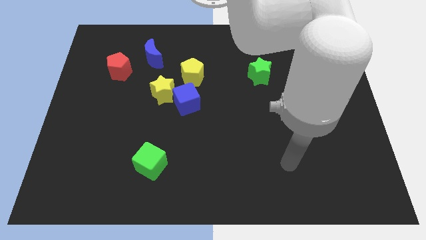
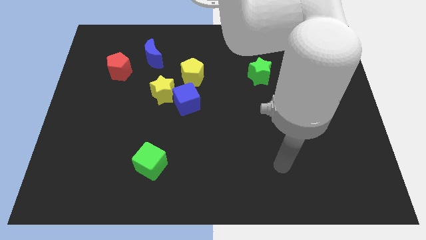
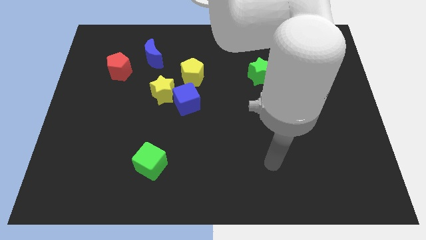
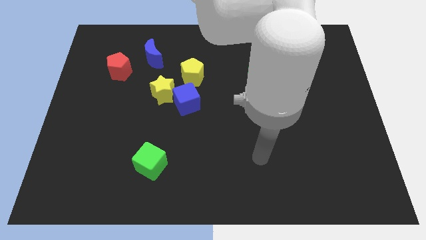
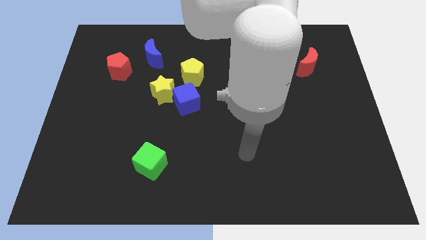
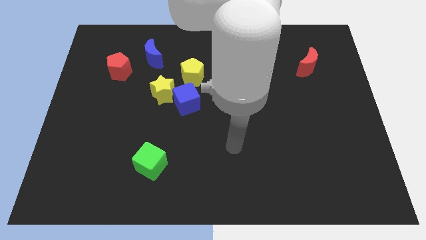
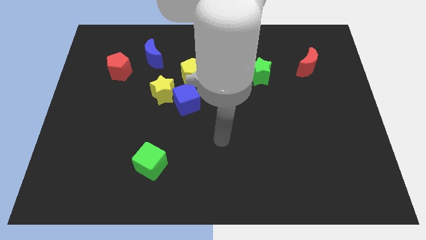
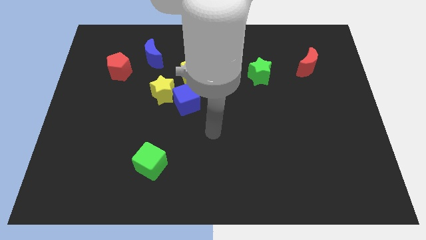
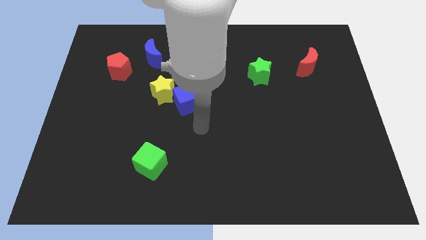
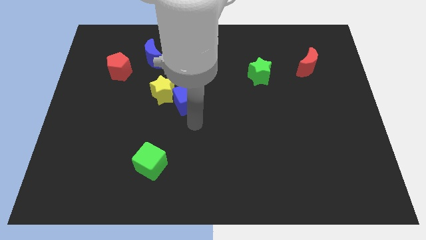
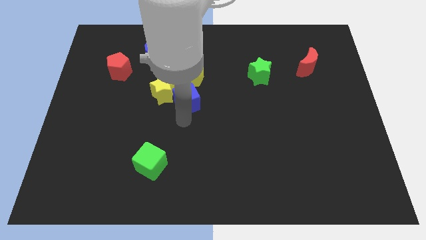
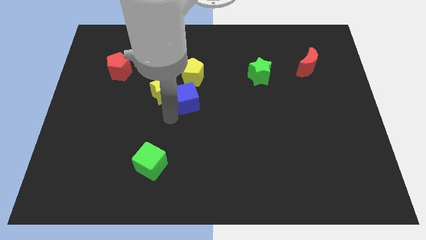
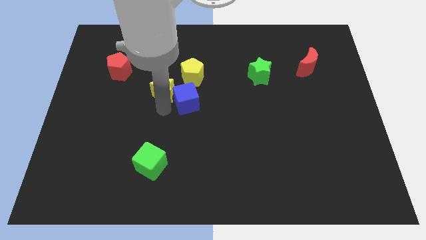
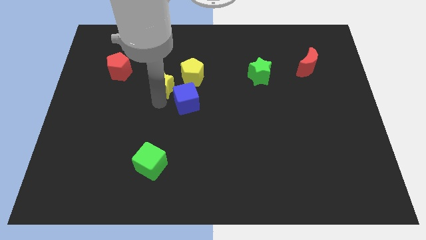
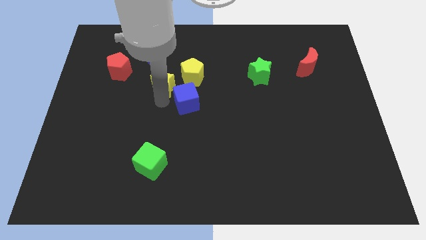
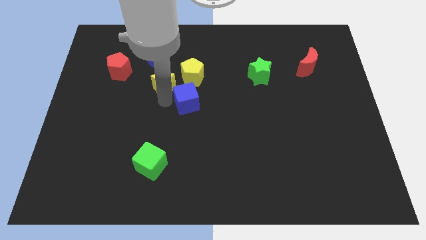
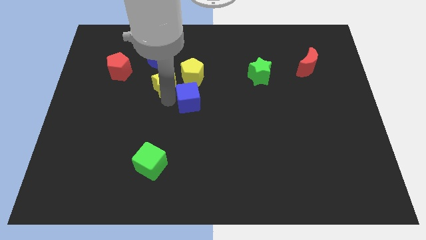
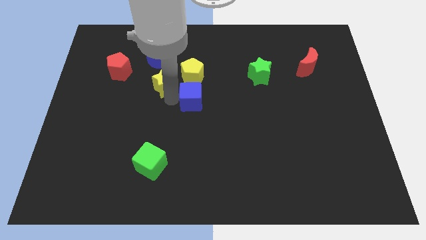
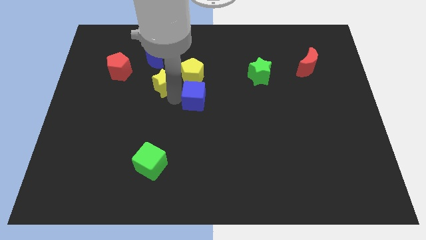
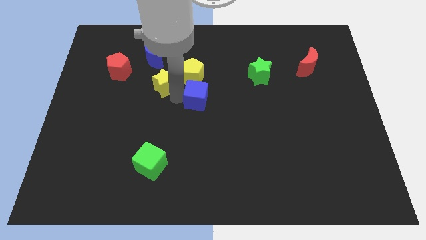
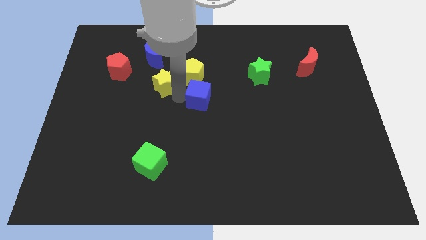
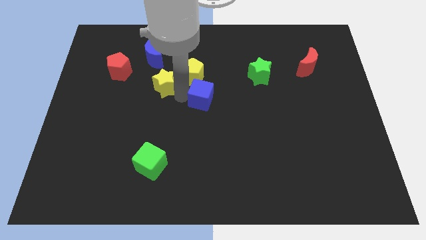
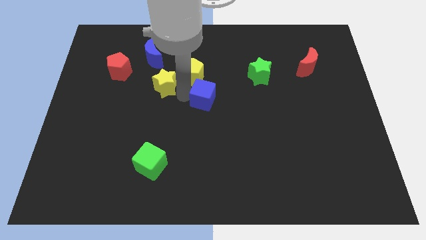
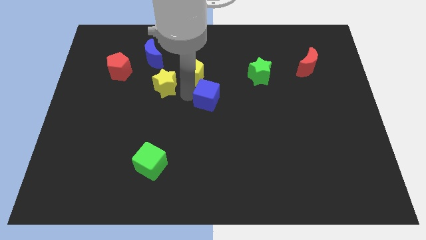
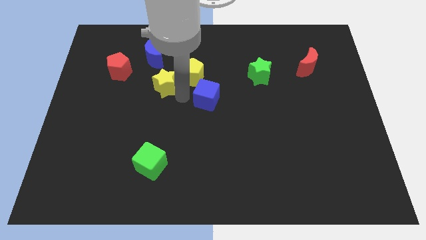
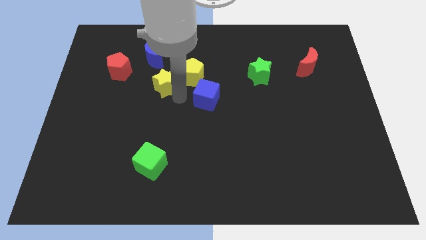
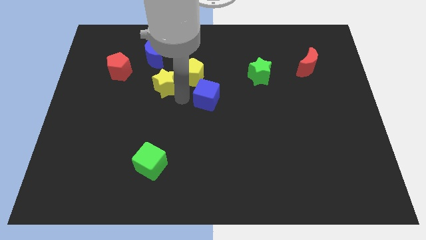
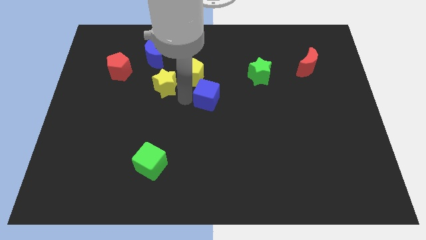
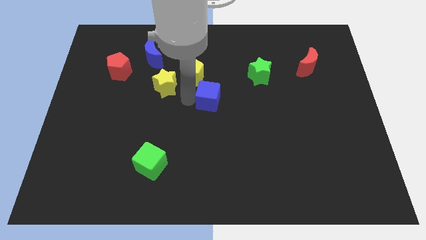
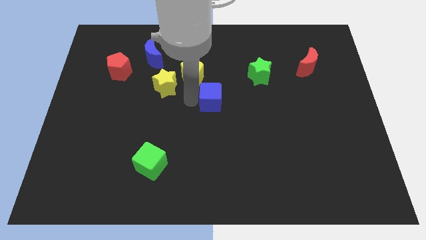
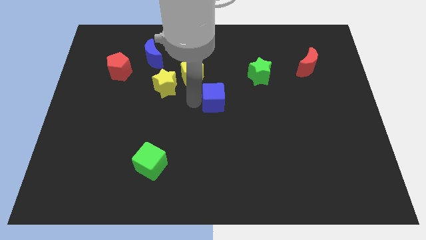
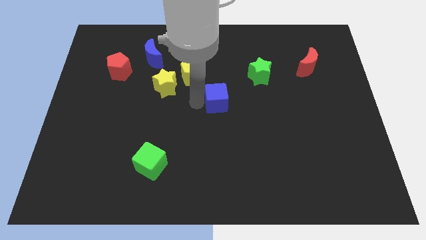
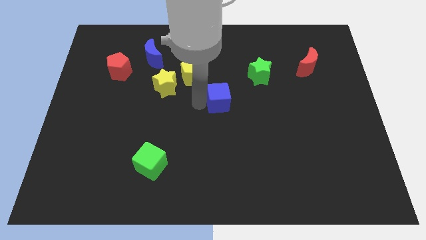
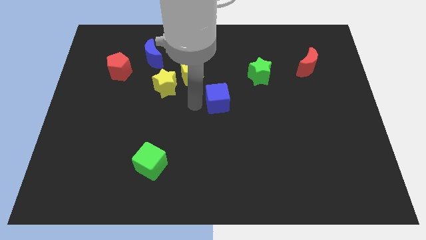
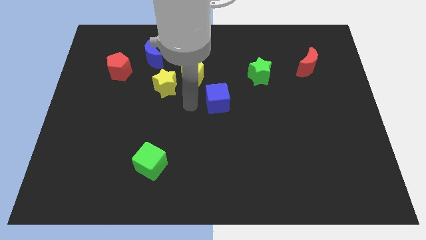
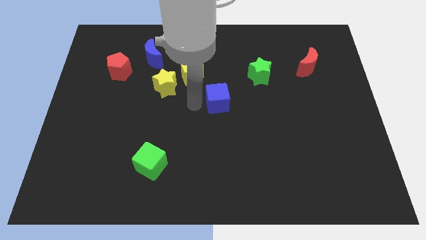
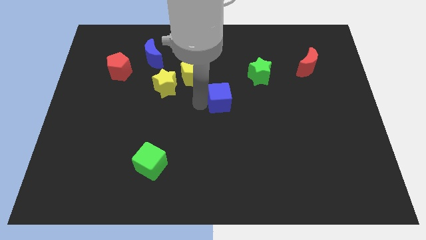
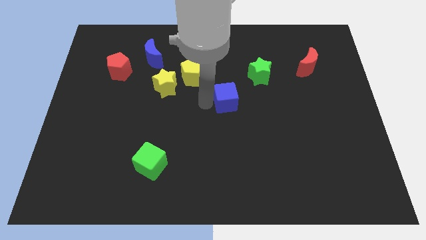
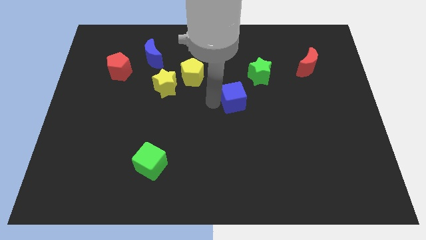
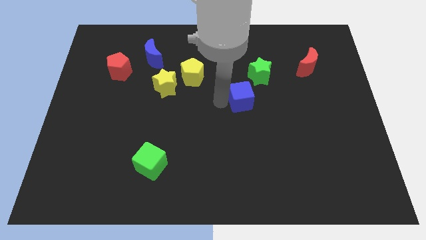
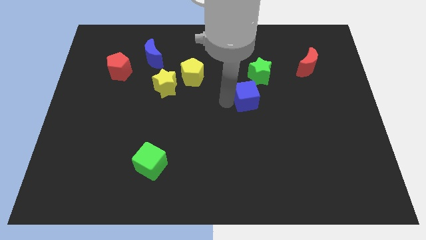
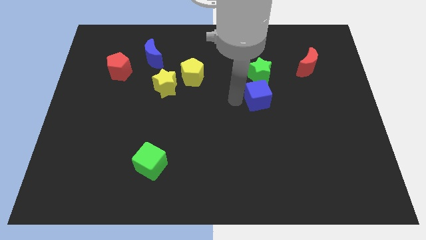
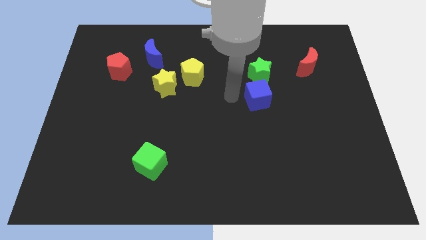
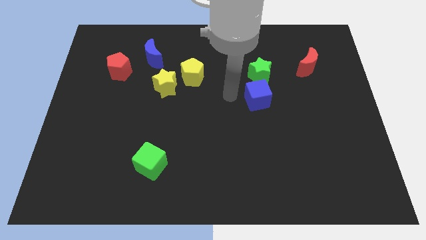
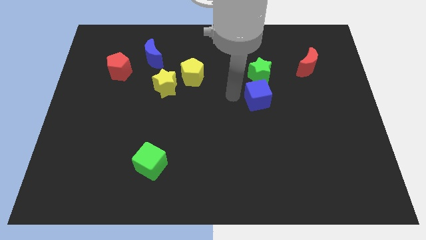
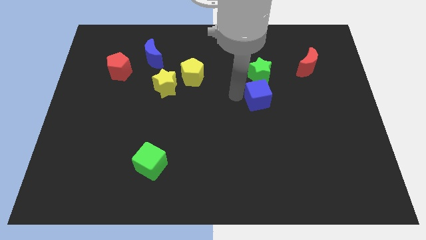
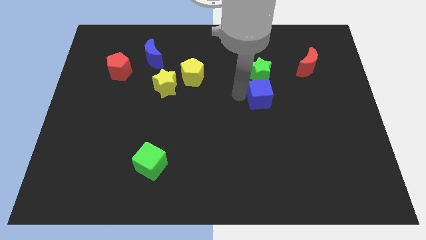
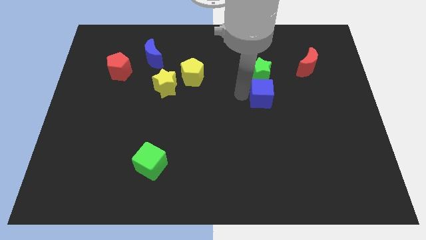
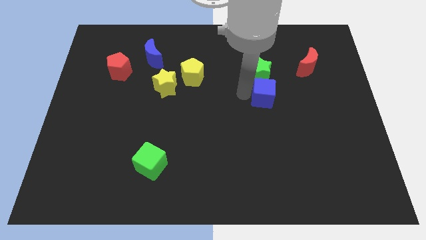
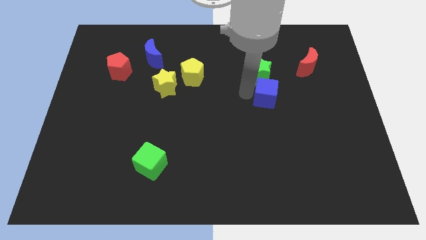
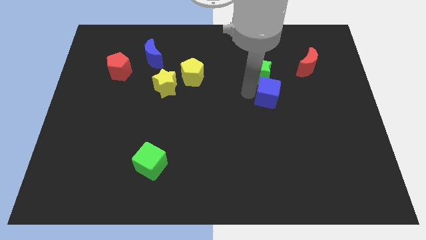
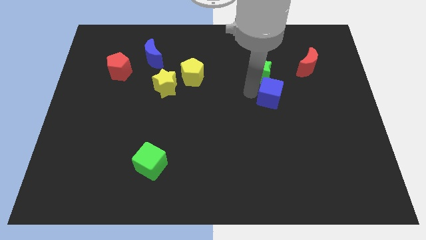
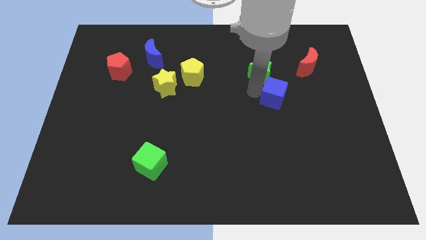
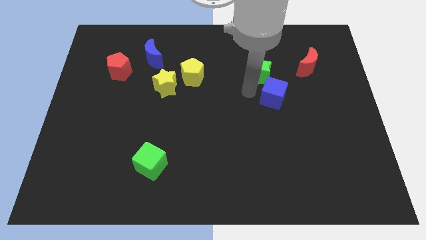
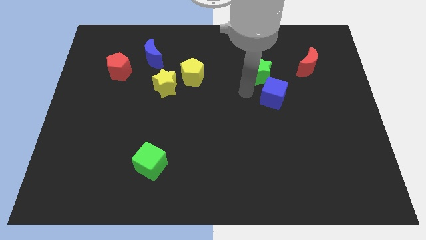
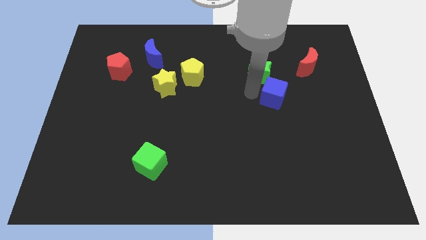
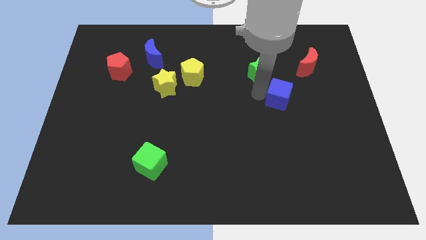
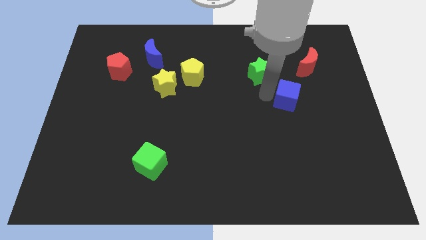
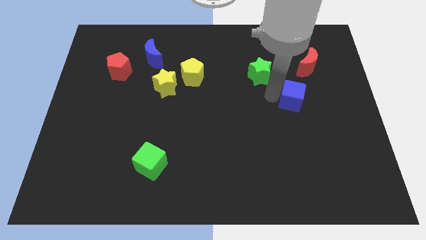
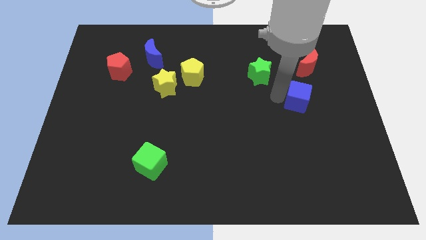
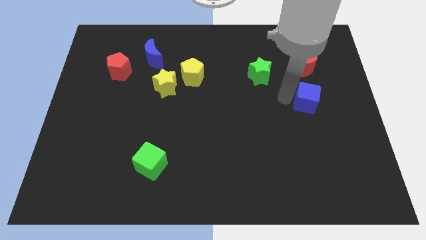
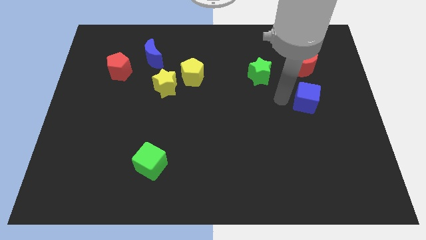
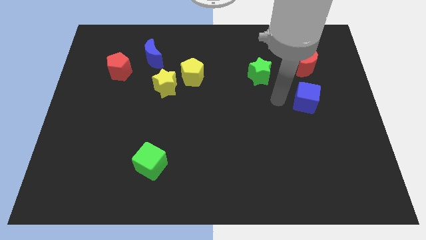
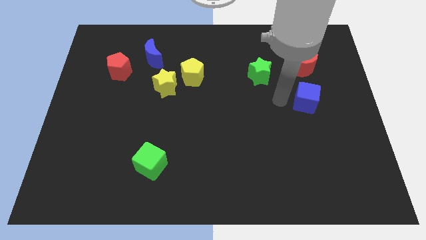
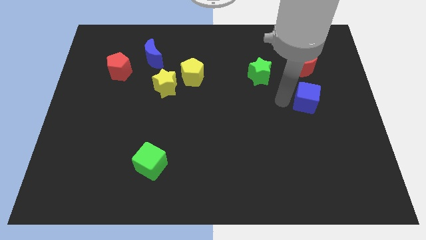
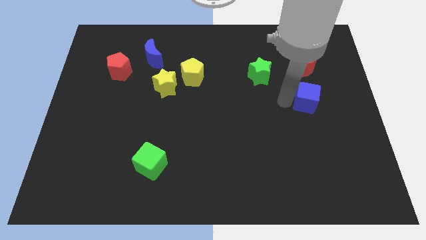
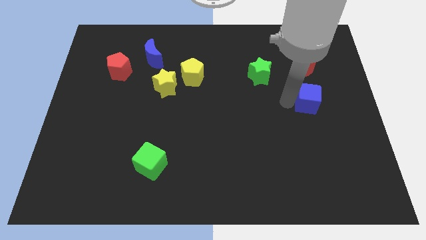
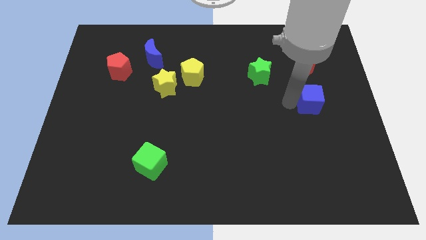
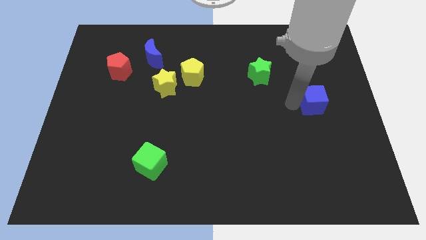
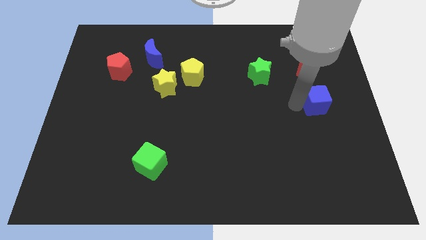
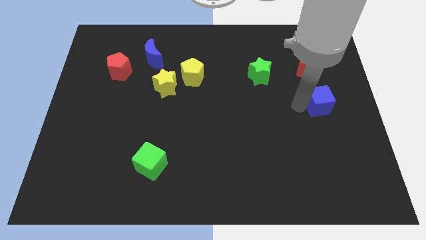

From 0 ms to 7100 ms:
move the blue cube to the right side of the board
